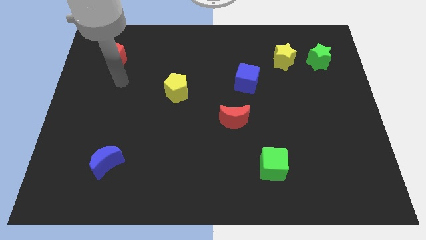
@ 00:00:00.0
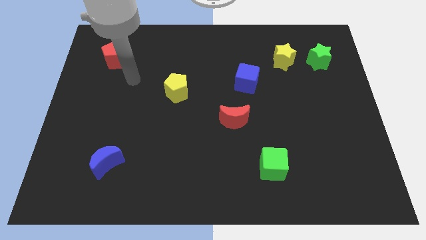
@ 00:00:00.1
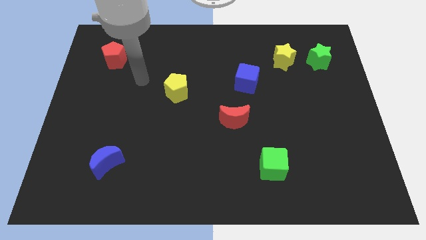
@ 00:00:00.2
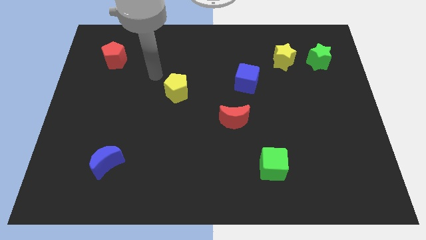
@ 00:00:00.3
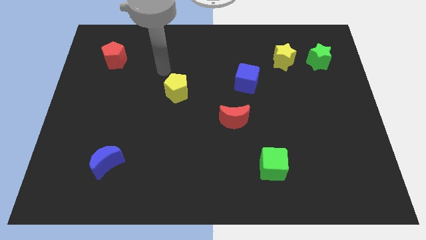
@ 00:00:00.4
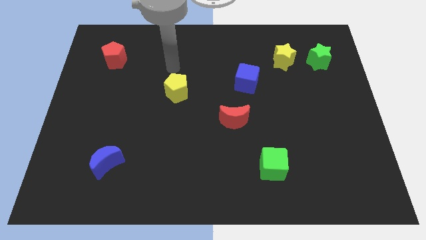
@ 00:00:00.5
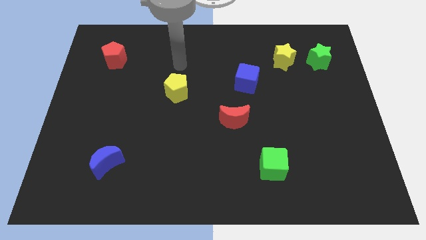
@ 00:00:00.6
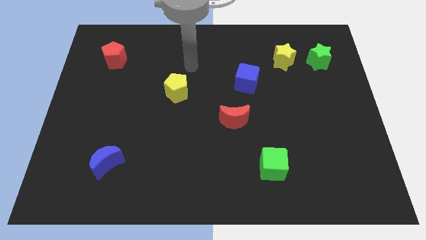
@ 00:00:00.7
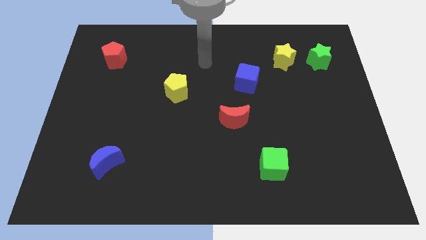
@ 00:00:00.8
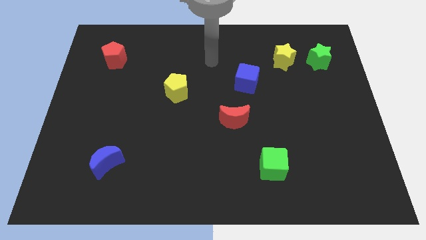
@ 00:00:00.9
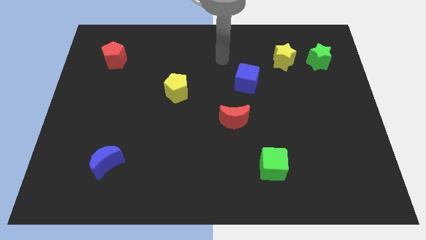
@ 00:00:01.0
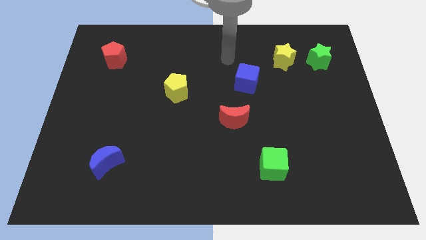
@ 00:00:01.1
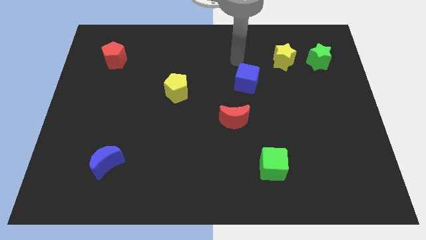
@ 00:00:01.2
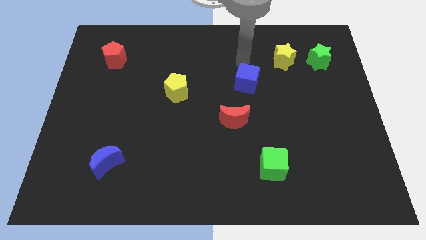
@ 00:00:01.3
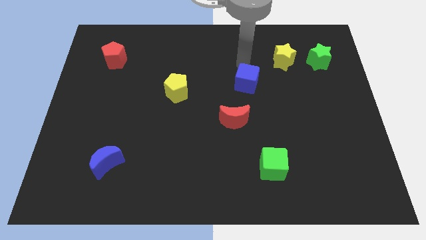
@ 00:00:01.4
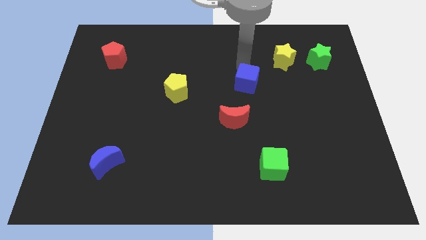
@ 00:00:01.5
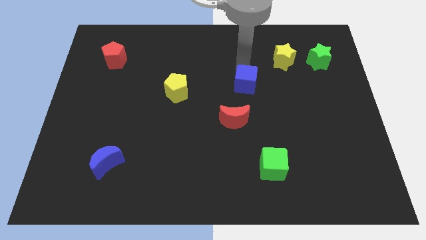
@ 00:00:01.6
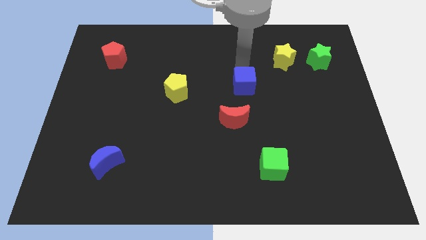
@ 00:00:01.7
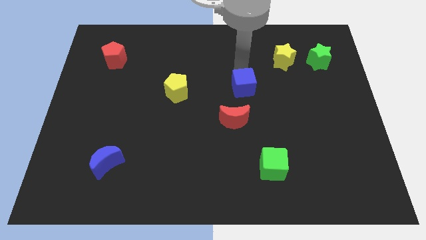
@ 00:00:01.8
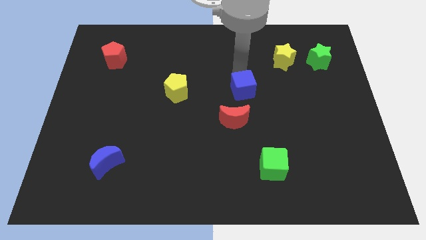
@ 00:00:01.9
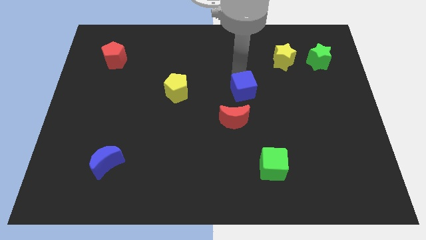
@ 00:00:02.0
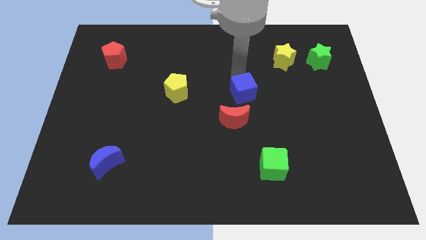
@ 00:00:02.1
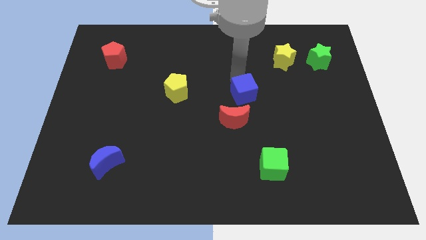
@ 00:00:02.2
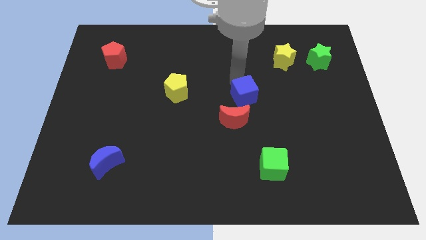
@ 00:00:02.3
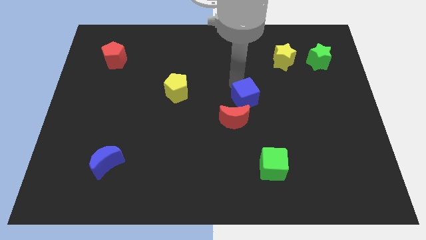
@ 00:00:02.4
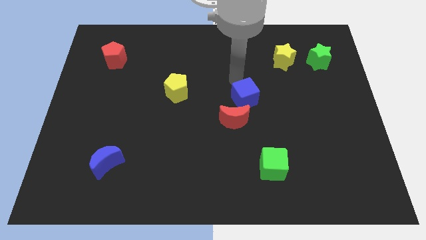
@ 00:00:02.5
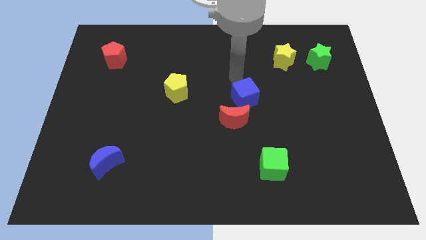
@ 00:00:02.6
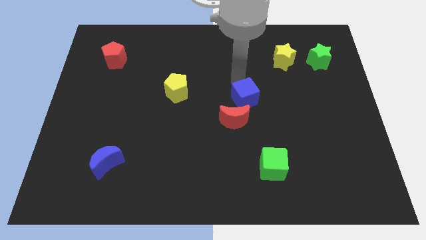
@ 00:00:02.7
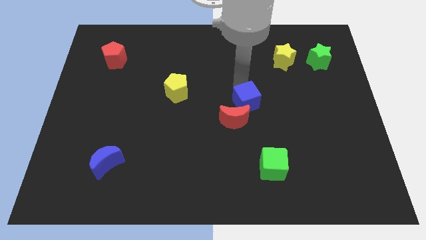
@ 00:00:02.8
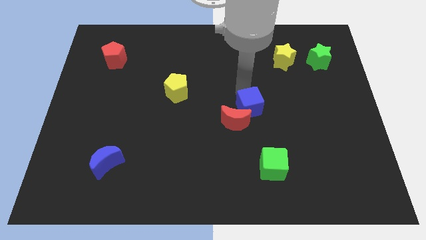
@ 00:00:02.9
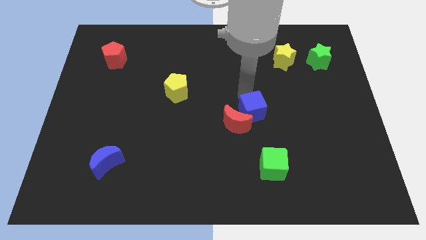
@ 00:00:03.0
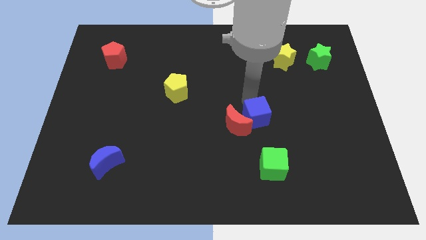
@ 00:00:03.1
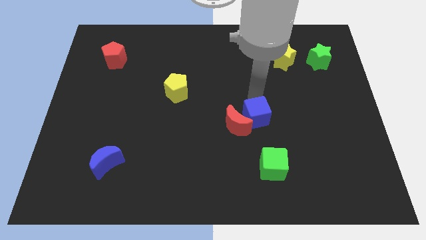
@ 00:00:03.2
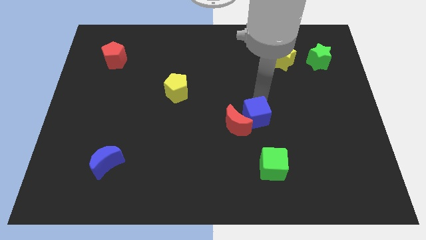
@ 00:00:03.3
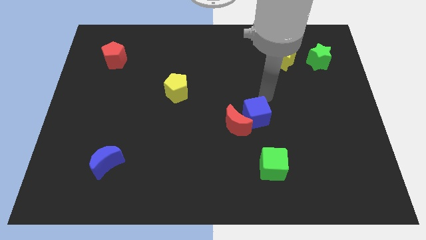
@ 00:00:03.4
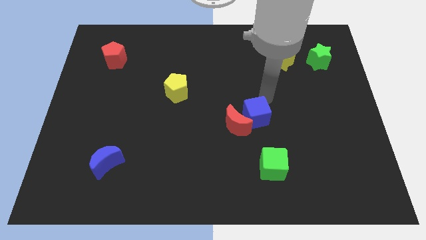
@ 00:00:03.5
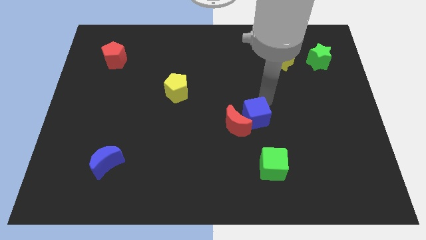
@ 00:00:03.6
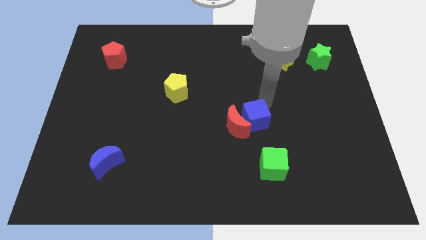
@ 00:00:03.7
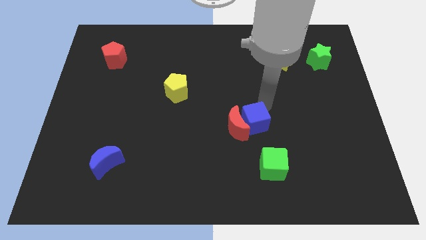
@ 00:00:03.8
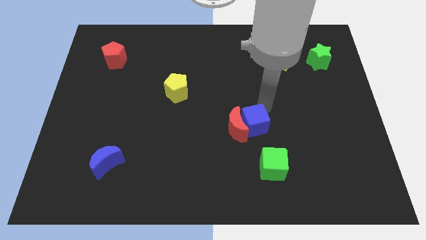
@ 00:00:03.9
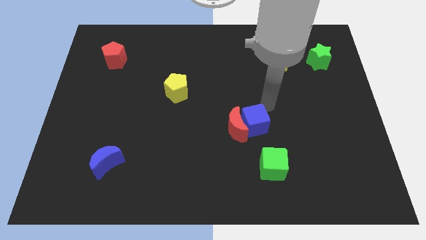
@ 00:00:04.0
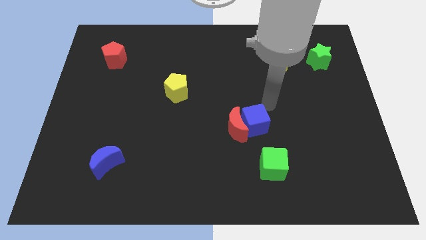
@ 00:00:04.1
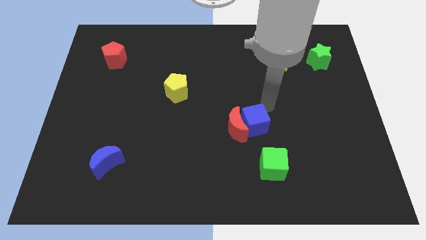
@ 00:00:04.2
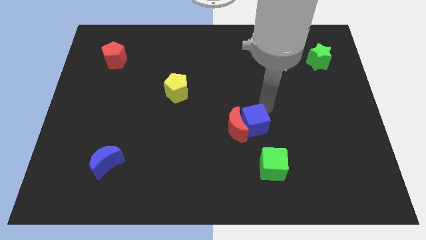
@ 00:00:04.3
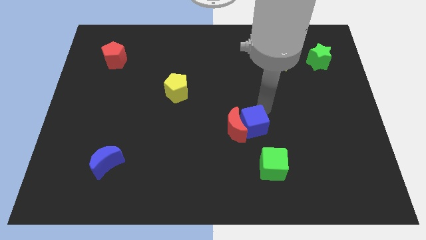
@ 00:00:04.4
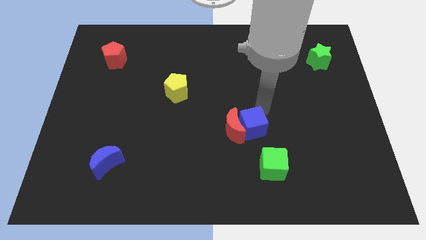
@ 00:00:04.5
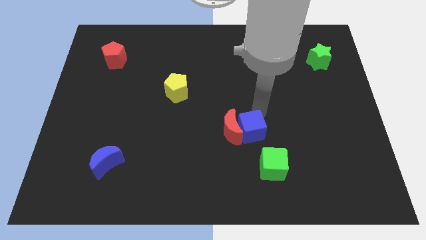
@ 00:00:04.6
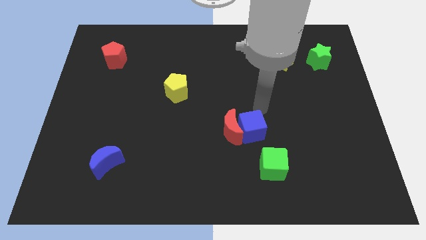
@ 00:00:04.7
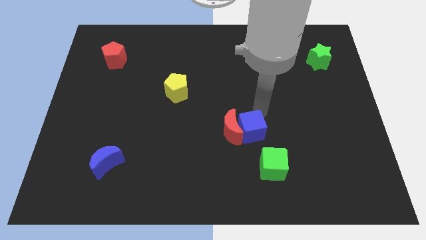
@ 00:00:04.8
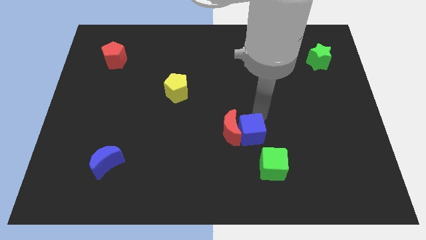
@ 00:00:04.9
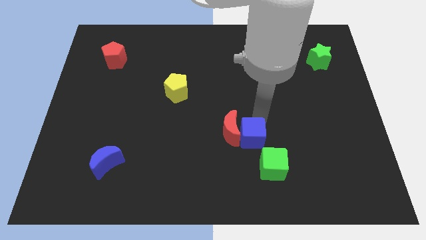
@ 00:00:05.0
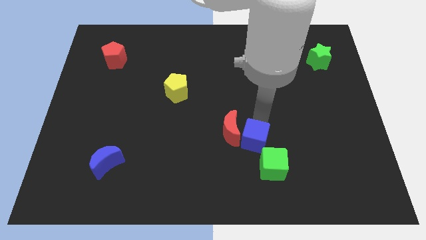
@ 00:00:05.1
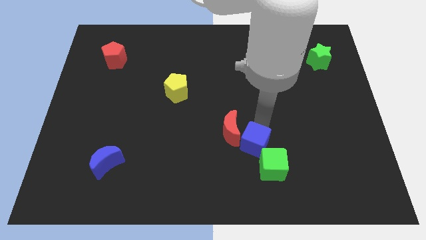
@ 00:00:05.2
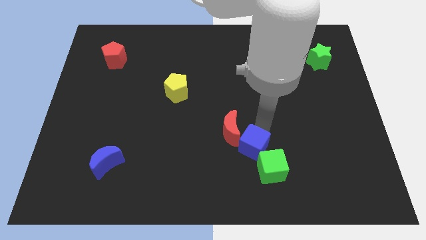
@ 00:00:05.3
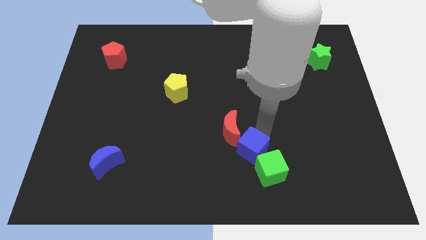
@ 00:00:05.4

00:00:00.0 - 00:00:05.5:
push the blue cube to the bottom of the red moon
